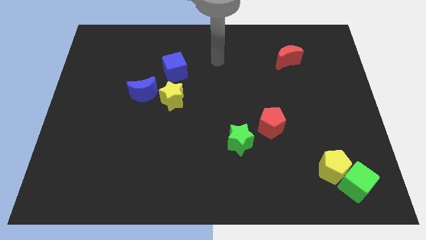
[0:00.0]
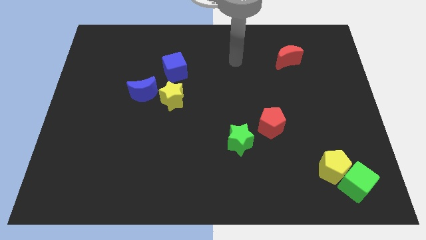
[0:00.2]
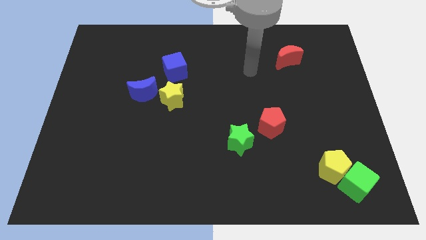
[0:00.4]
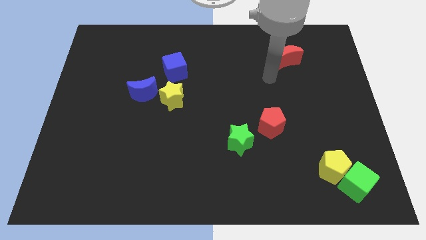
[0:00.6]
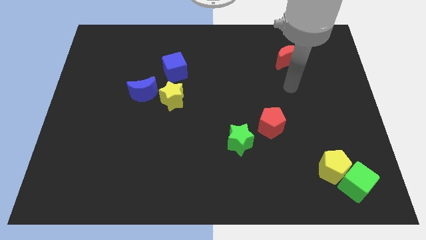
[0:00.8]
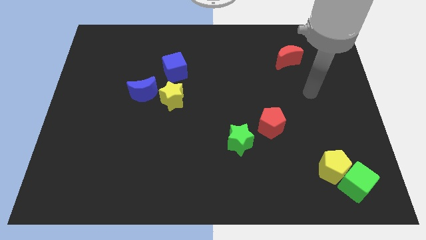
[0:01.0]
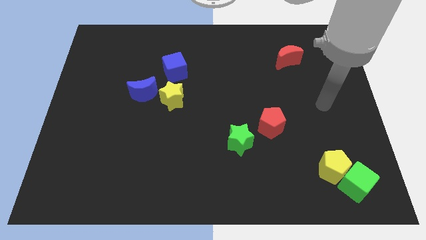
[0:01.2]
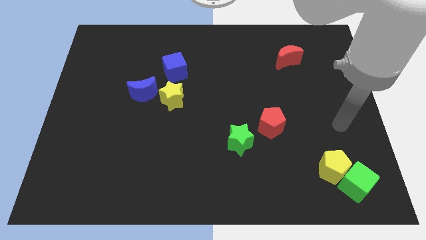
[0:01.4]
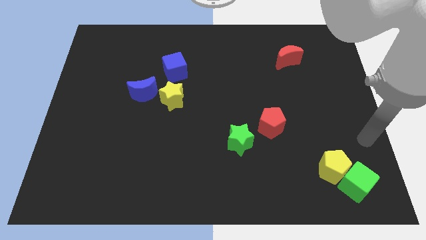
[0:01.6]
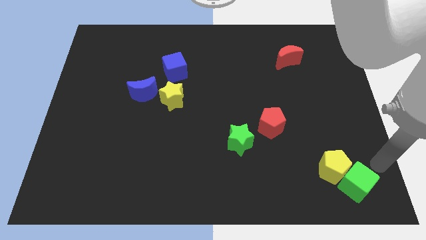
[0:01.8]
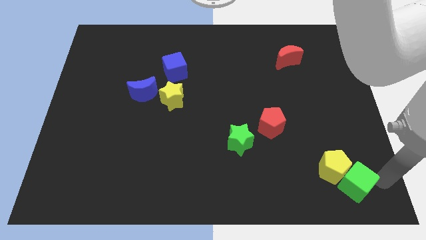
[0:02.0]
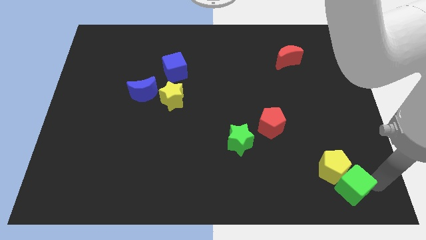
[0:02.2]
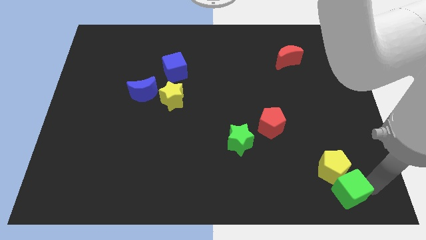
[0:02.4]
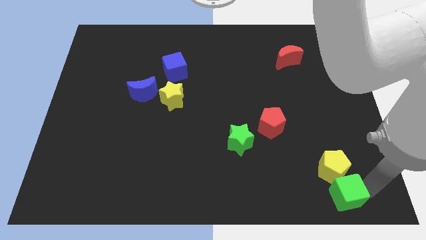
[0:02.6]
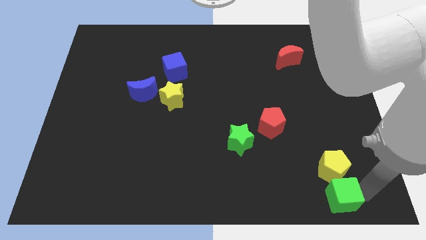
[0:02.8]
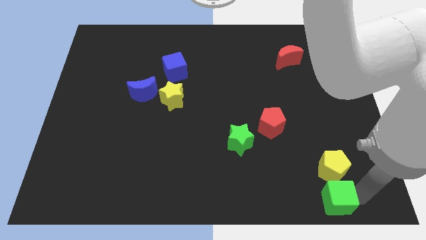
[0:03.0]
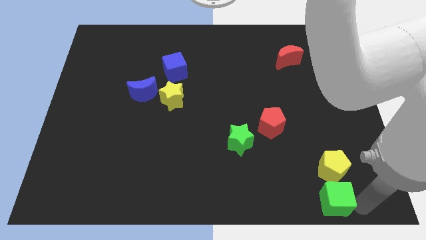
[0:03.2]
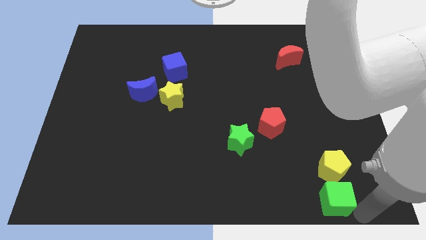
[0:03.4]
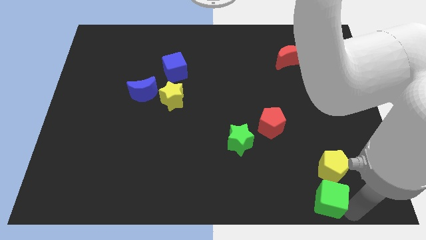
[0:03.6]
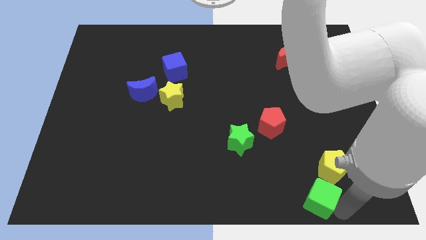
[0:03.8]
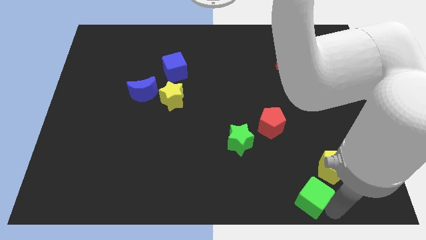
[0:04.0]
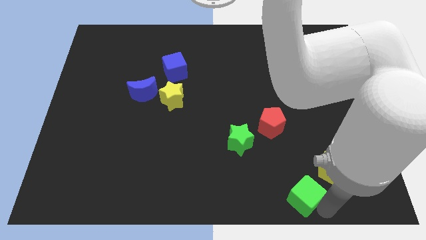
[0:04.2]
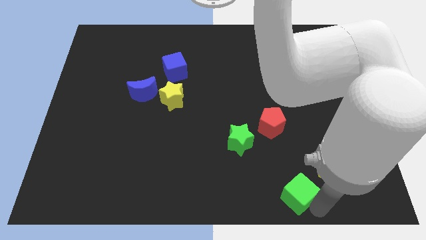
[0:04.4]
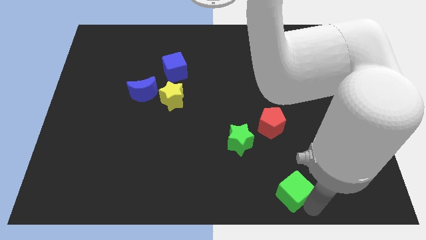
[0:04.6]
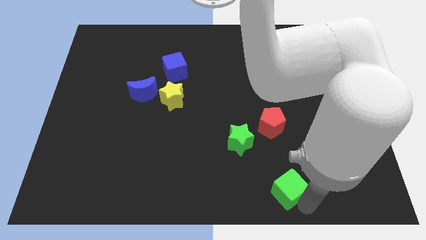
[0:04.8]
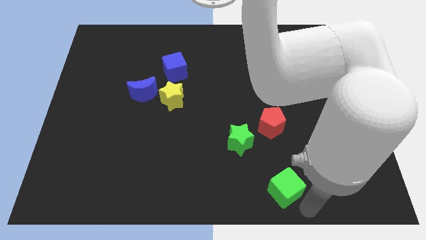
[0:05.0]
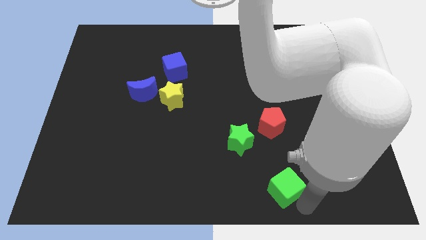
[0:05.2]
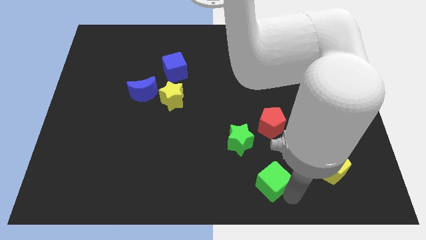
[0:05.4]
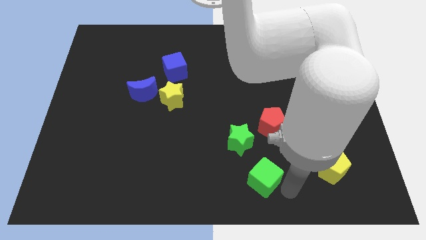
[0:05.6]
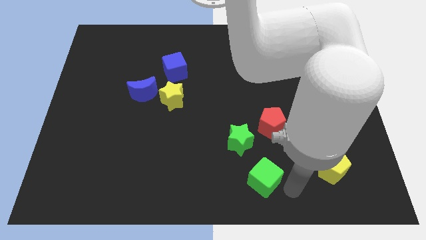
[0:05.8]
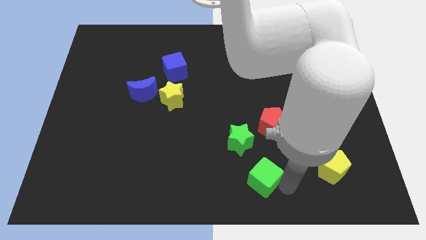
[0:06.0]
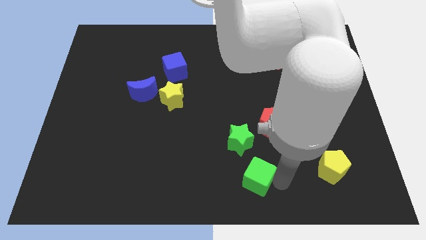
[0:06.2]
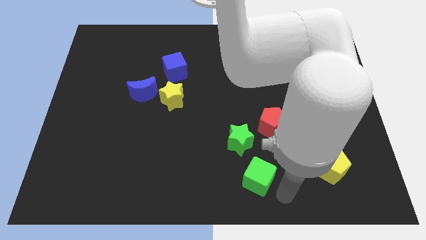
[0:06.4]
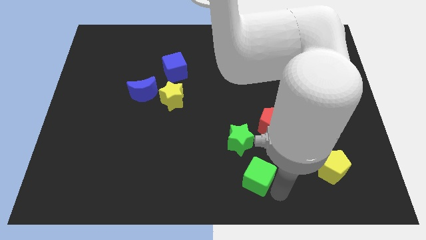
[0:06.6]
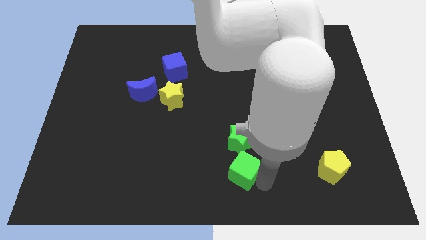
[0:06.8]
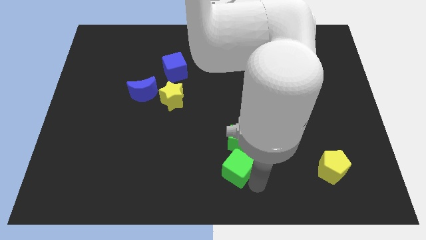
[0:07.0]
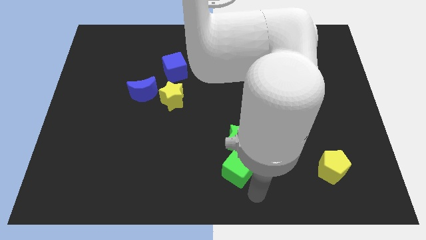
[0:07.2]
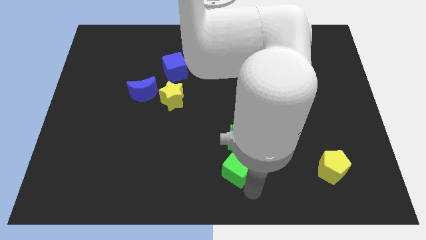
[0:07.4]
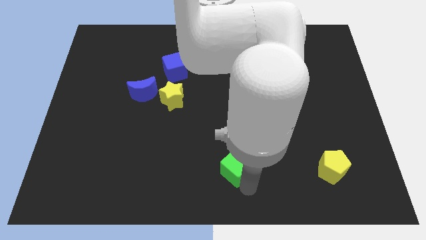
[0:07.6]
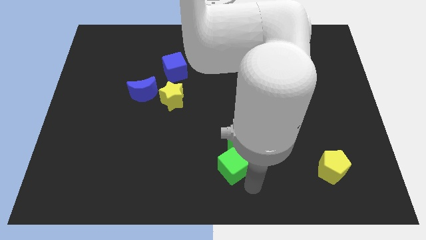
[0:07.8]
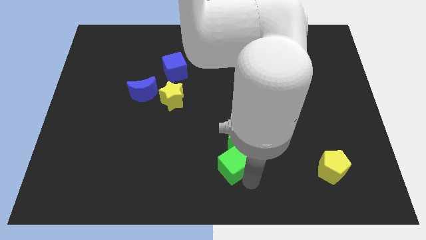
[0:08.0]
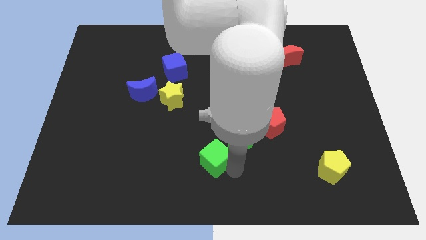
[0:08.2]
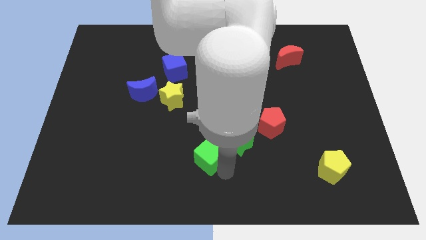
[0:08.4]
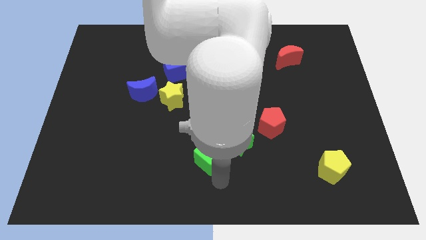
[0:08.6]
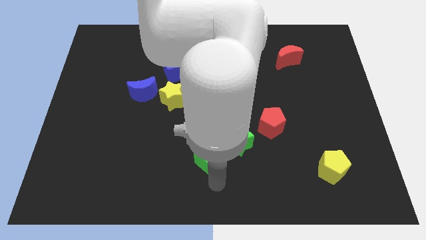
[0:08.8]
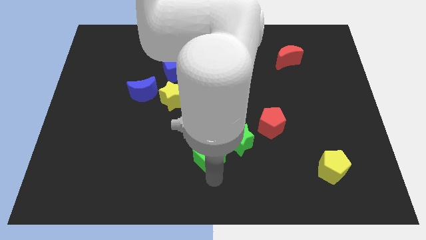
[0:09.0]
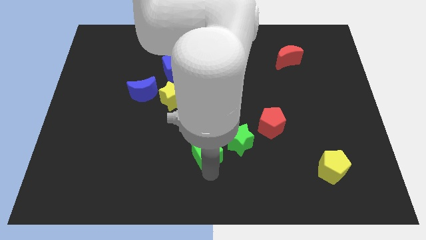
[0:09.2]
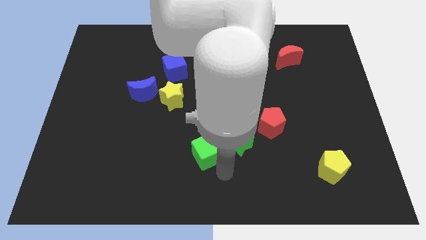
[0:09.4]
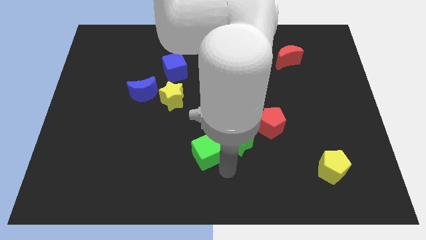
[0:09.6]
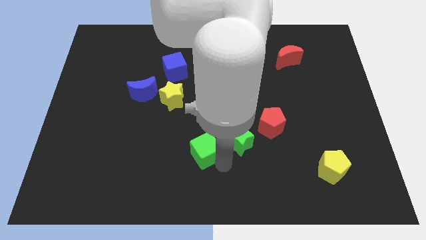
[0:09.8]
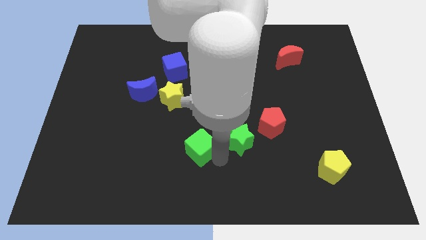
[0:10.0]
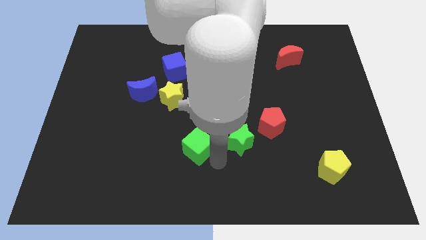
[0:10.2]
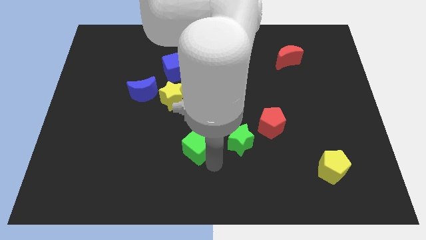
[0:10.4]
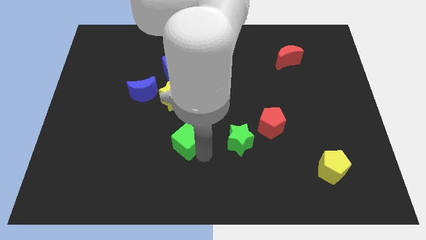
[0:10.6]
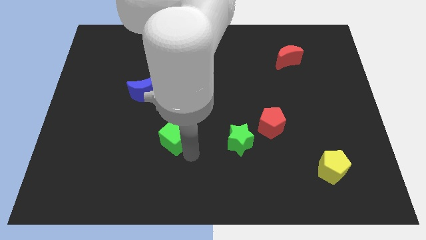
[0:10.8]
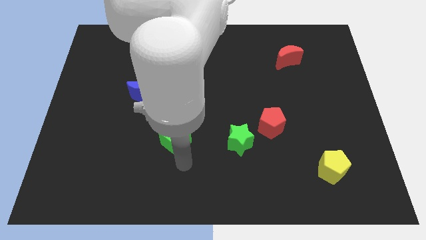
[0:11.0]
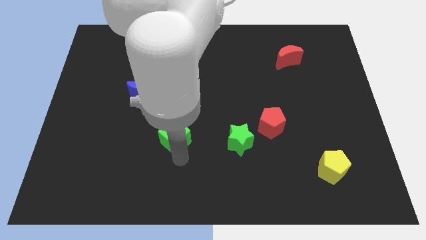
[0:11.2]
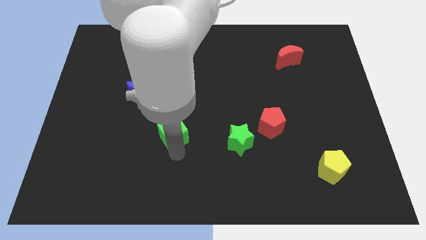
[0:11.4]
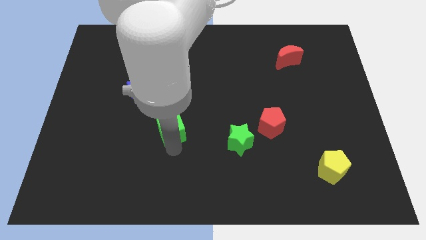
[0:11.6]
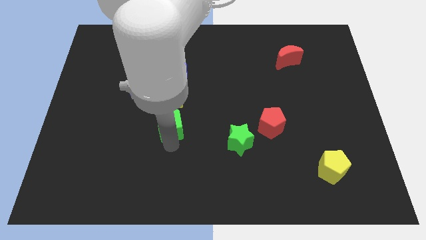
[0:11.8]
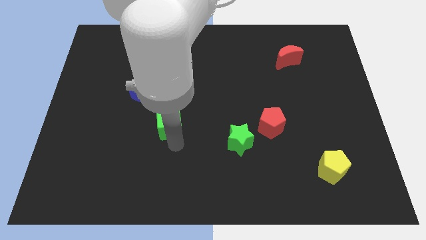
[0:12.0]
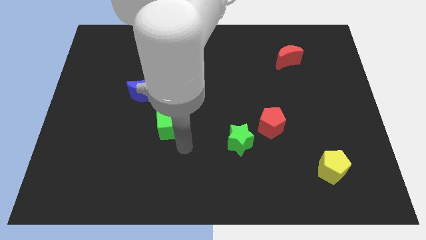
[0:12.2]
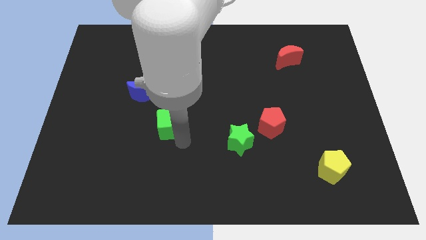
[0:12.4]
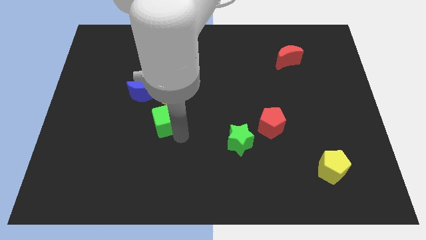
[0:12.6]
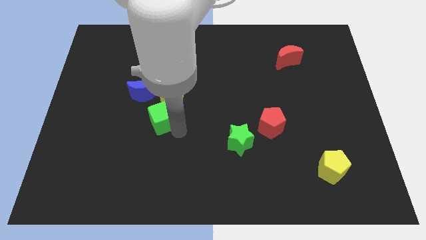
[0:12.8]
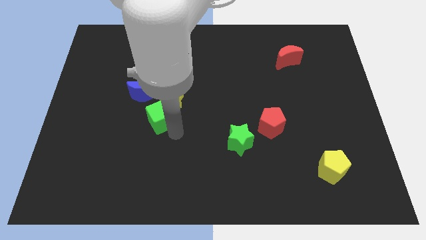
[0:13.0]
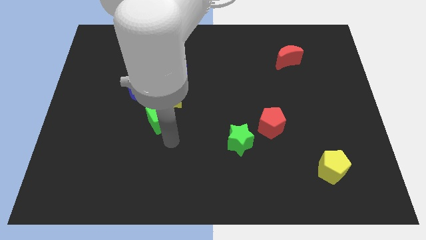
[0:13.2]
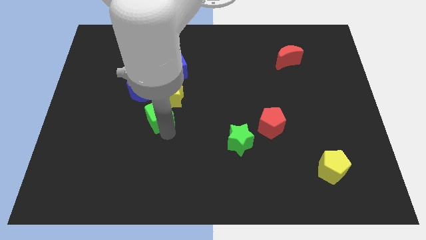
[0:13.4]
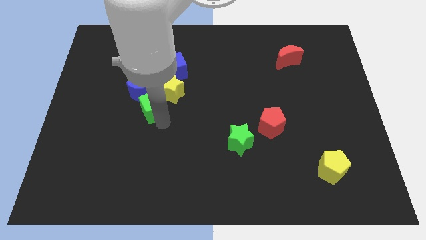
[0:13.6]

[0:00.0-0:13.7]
push the green cube to the blue moon

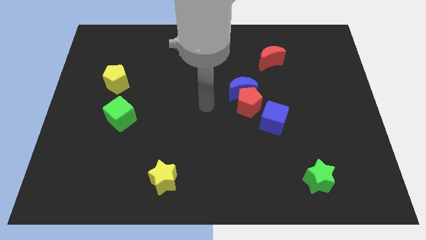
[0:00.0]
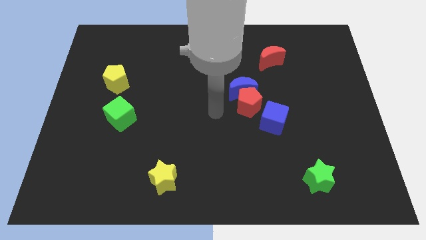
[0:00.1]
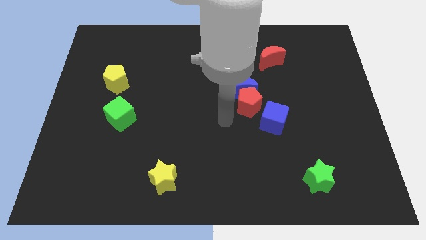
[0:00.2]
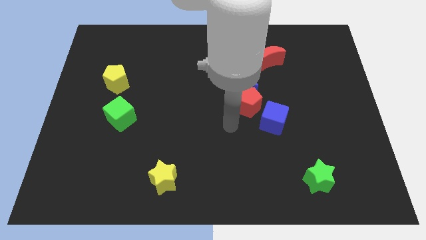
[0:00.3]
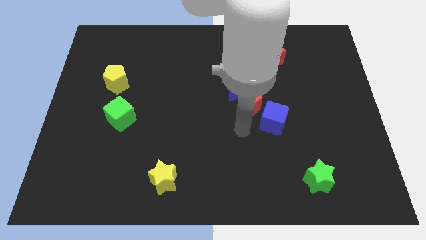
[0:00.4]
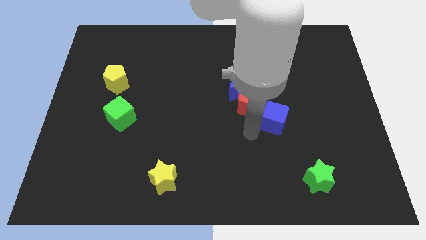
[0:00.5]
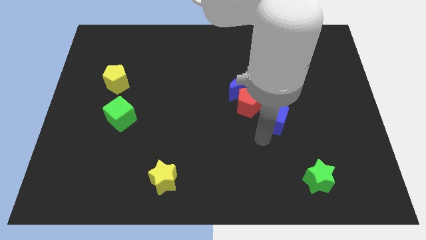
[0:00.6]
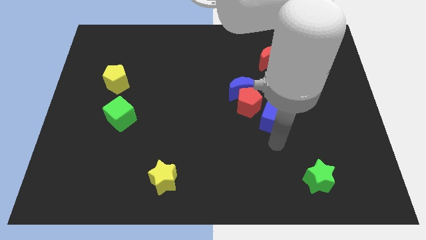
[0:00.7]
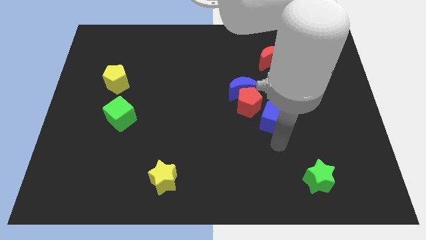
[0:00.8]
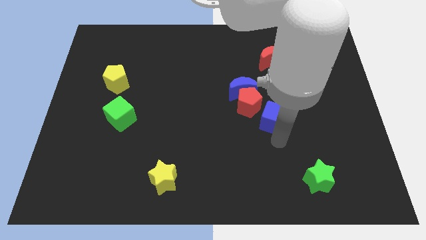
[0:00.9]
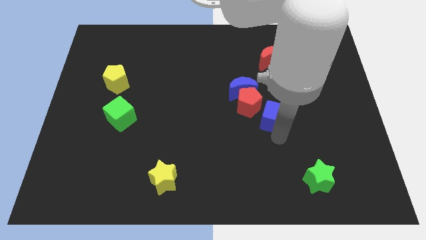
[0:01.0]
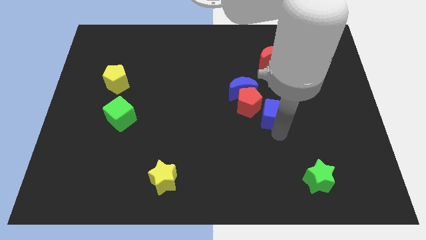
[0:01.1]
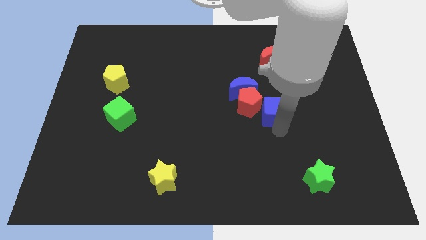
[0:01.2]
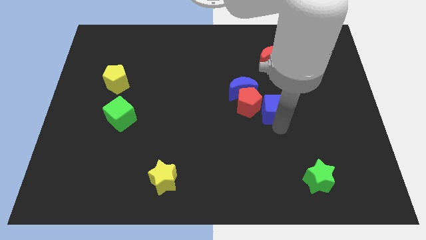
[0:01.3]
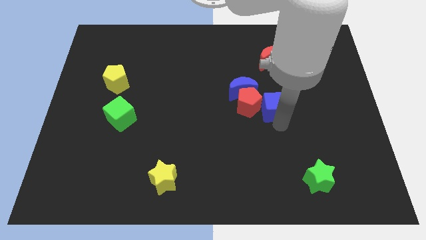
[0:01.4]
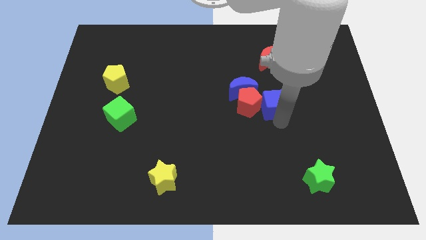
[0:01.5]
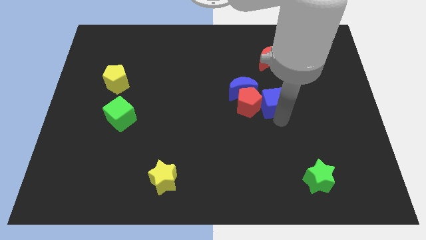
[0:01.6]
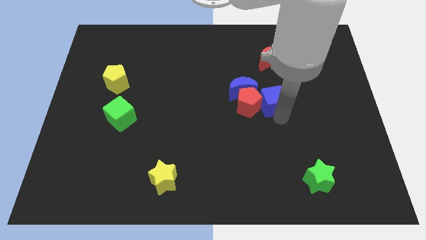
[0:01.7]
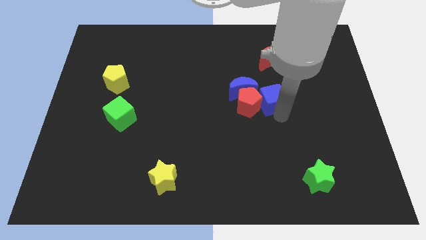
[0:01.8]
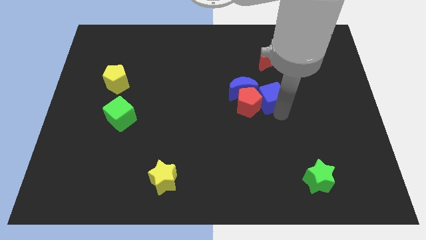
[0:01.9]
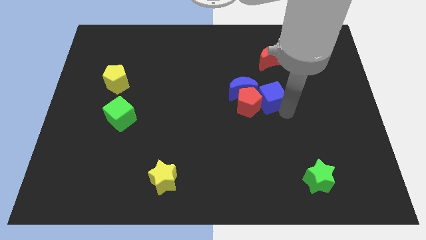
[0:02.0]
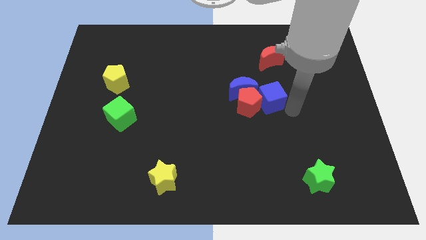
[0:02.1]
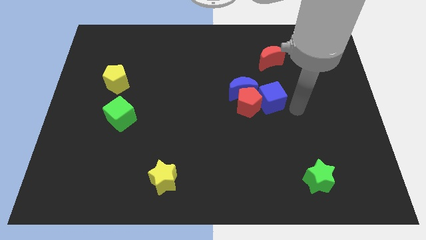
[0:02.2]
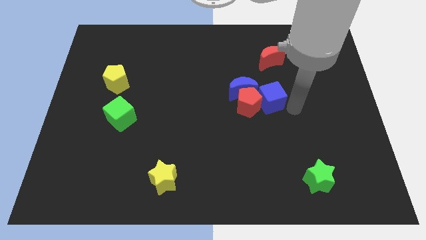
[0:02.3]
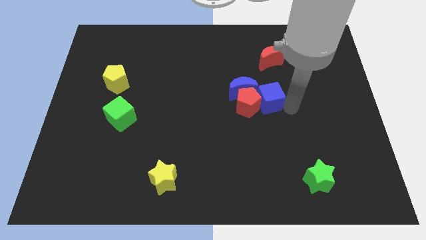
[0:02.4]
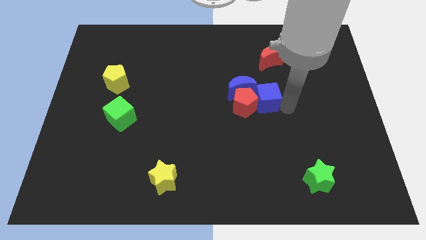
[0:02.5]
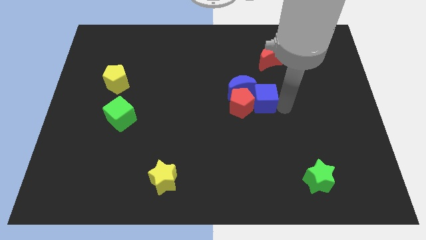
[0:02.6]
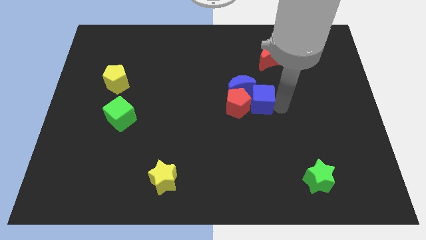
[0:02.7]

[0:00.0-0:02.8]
push the blue cube to the blue moon
